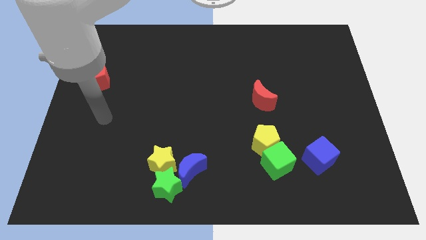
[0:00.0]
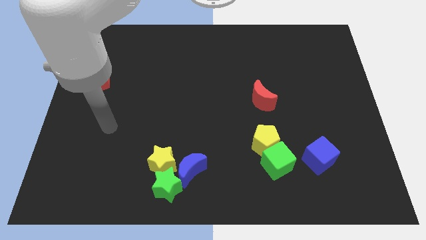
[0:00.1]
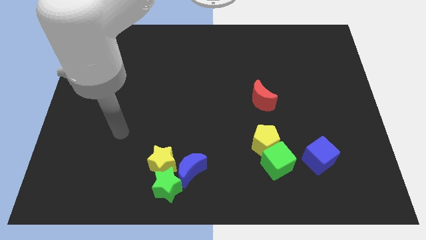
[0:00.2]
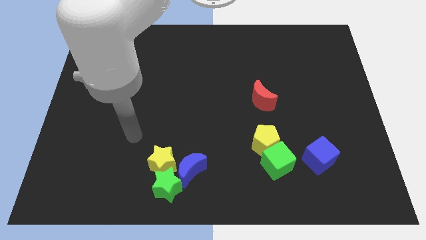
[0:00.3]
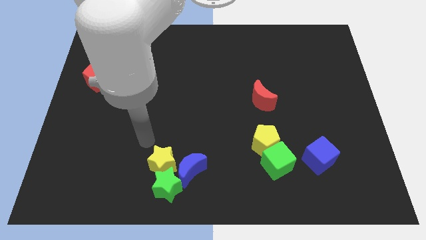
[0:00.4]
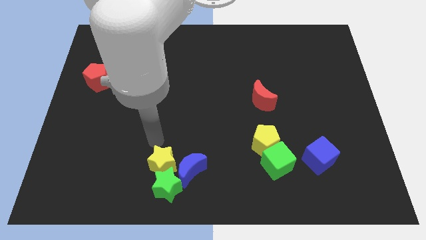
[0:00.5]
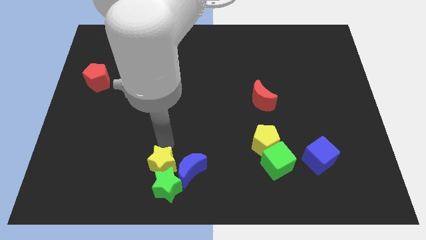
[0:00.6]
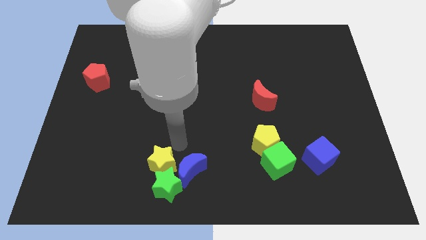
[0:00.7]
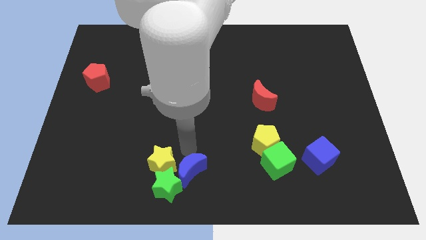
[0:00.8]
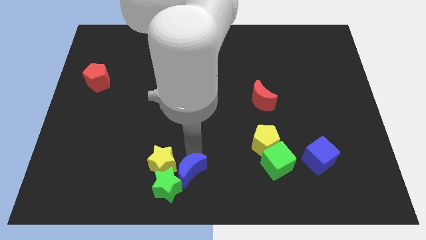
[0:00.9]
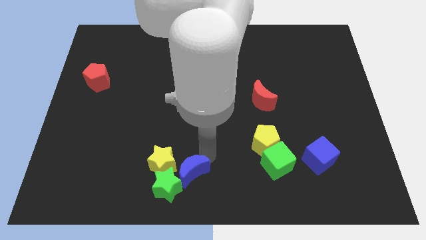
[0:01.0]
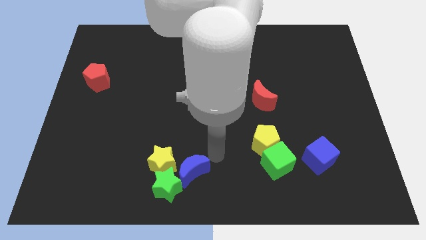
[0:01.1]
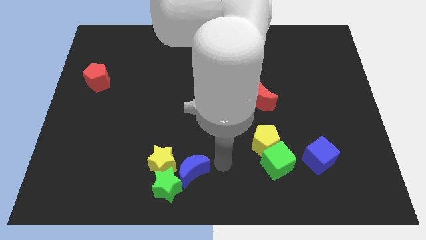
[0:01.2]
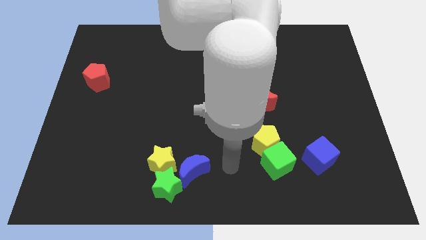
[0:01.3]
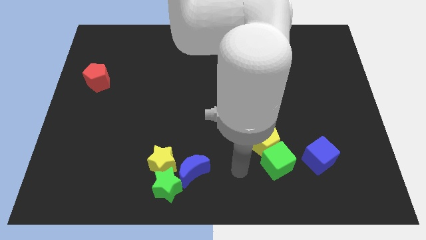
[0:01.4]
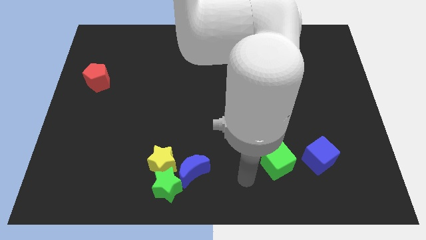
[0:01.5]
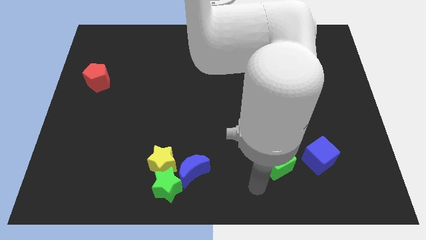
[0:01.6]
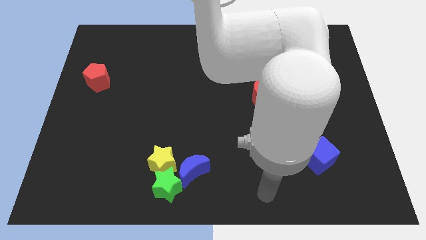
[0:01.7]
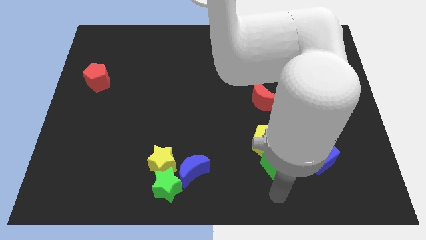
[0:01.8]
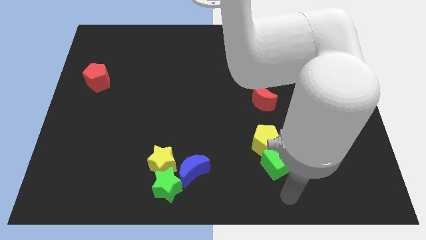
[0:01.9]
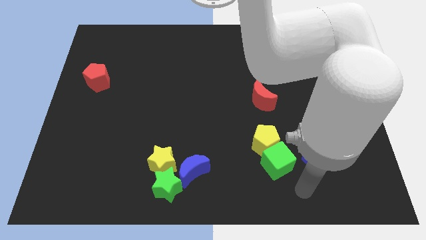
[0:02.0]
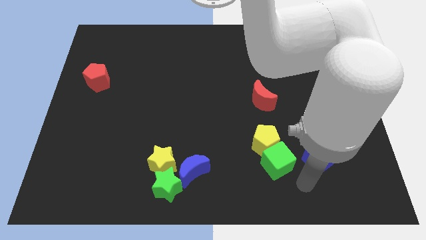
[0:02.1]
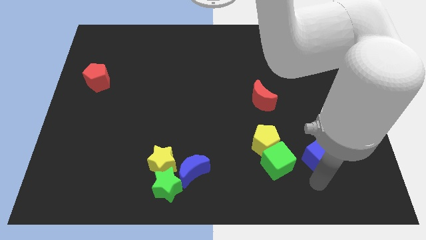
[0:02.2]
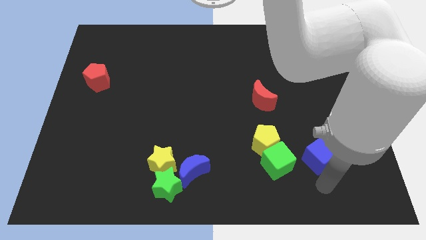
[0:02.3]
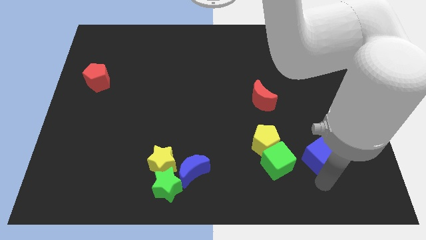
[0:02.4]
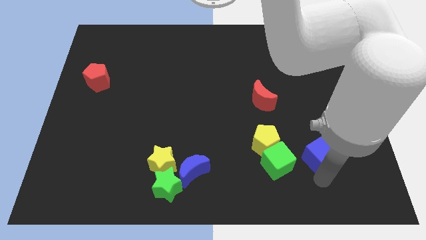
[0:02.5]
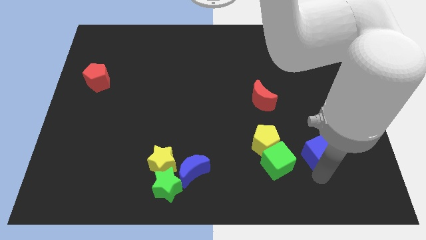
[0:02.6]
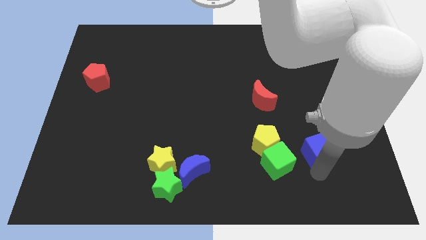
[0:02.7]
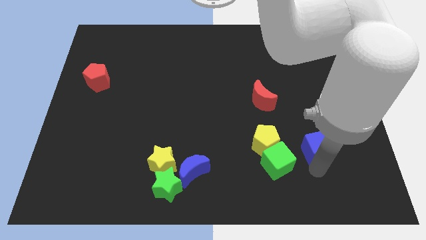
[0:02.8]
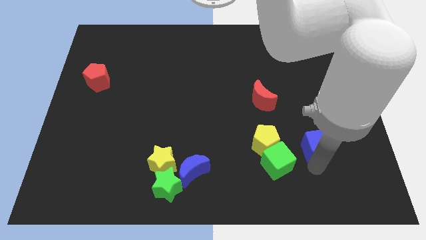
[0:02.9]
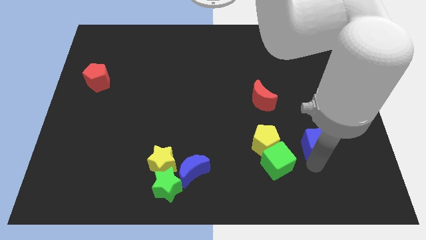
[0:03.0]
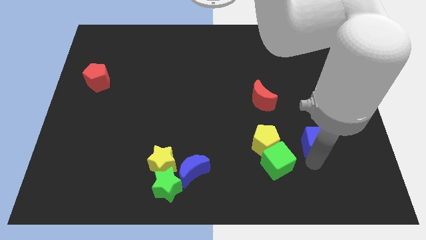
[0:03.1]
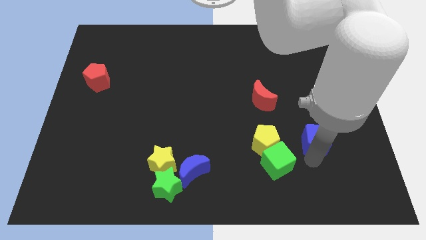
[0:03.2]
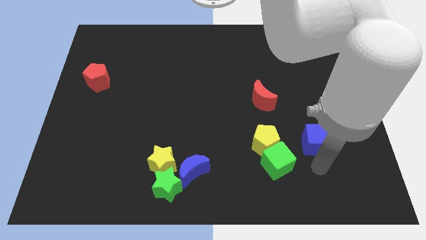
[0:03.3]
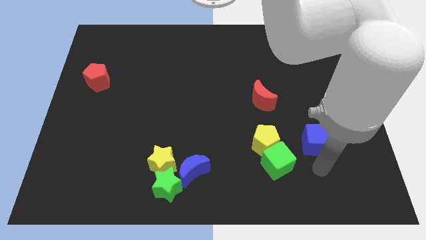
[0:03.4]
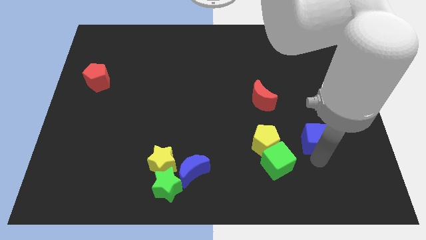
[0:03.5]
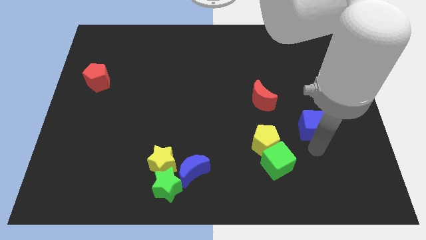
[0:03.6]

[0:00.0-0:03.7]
push the blue cube up a bit

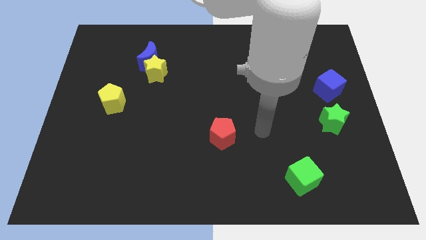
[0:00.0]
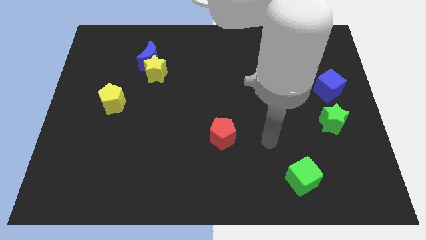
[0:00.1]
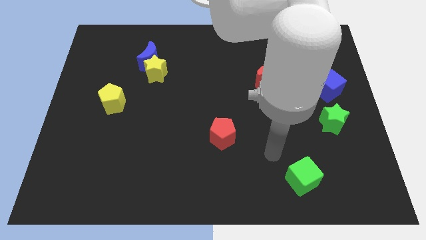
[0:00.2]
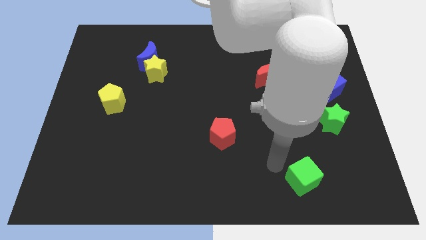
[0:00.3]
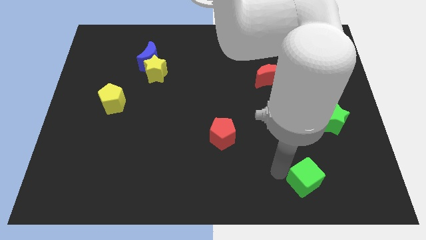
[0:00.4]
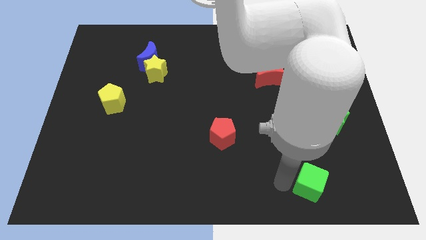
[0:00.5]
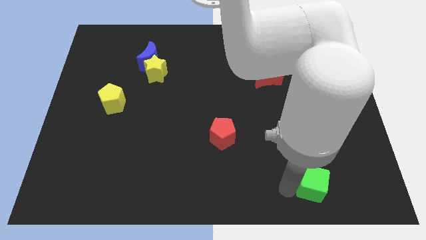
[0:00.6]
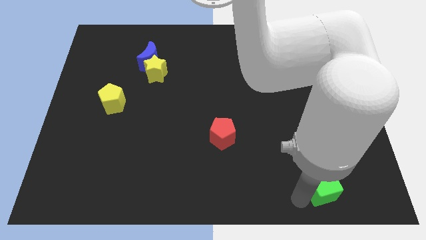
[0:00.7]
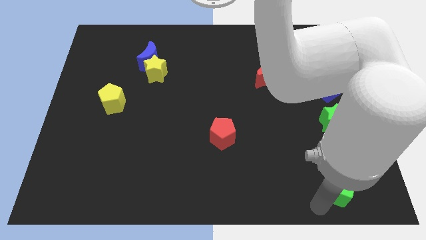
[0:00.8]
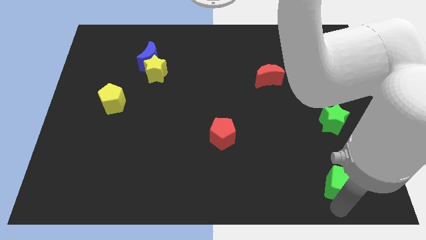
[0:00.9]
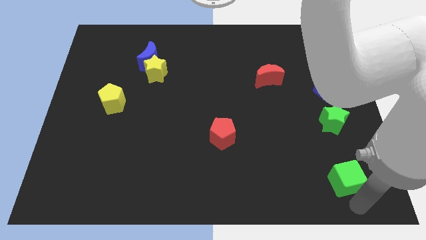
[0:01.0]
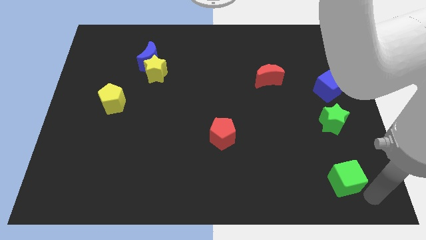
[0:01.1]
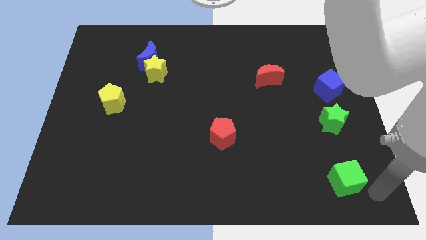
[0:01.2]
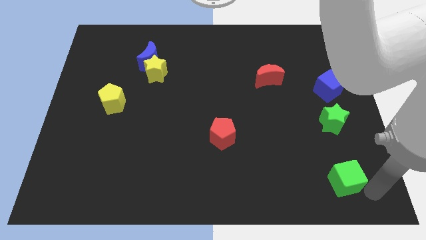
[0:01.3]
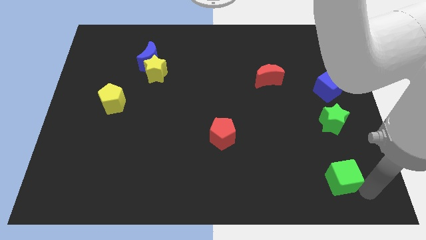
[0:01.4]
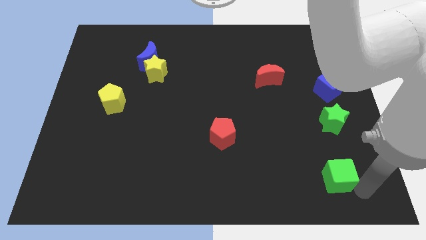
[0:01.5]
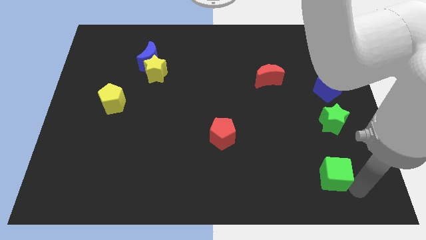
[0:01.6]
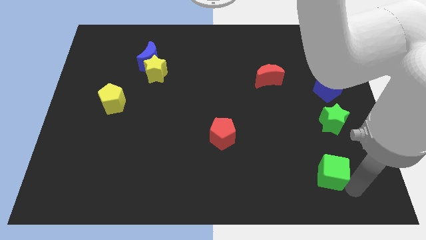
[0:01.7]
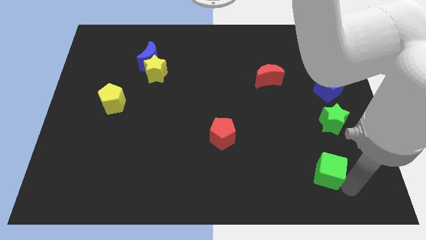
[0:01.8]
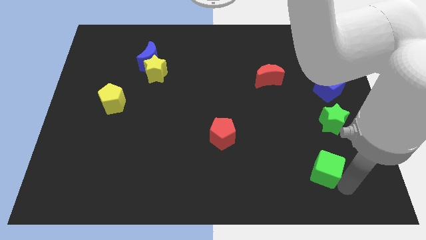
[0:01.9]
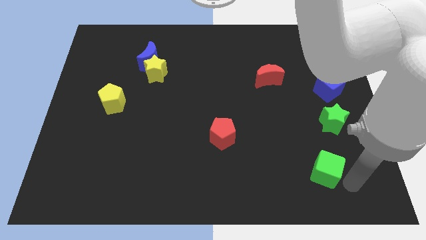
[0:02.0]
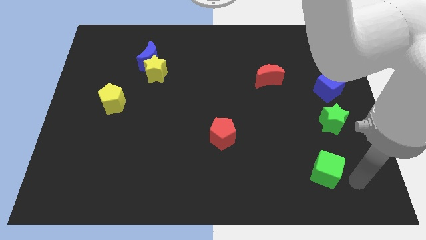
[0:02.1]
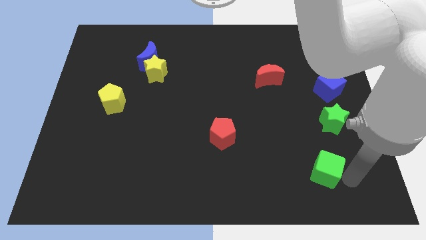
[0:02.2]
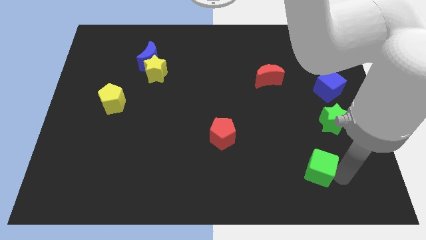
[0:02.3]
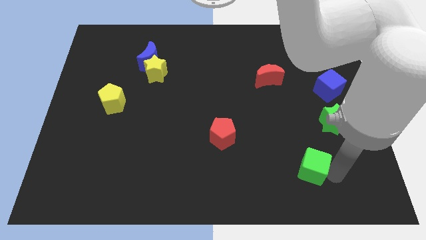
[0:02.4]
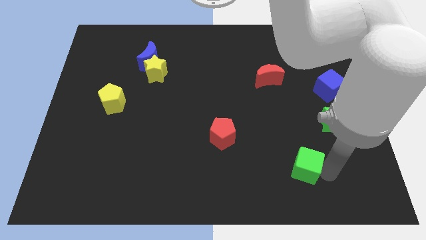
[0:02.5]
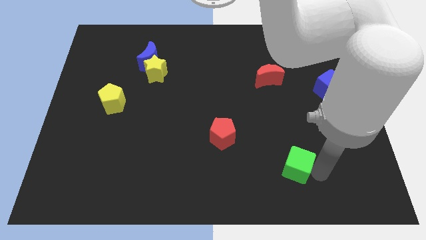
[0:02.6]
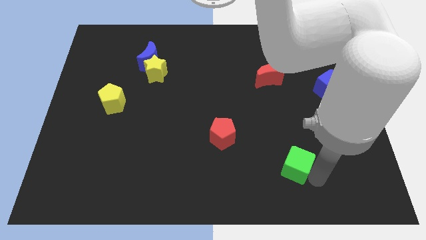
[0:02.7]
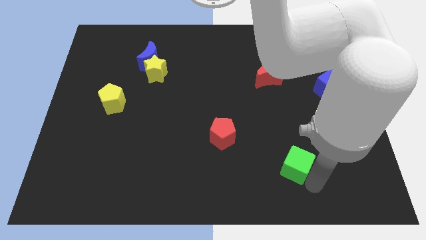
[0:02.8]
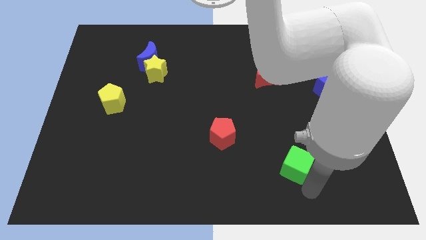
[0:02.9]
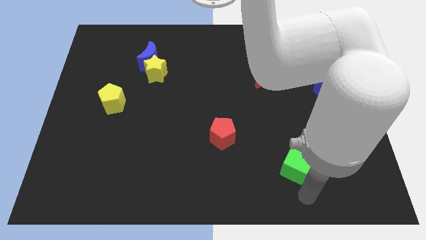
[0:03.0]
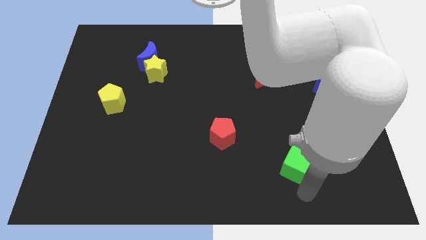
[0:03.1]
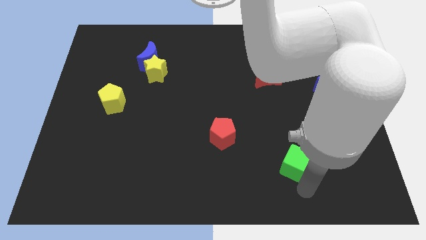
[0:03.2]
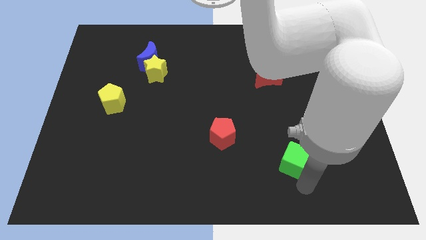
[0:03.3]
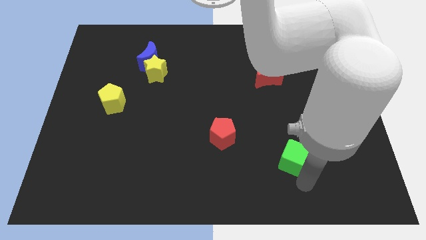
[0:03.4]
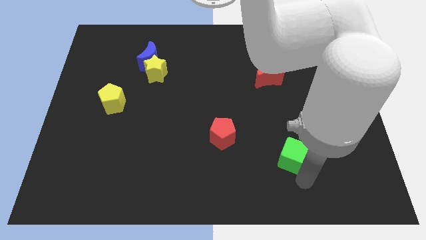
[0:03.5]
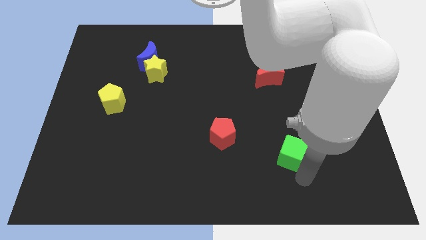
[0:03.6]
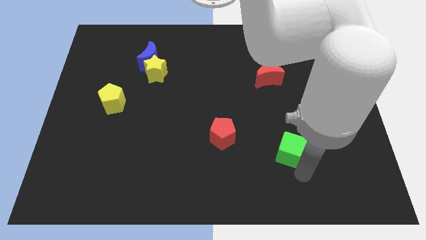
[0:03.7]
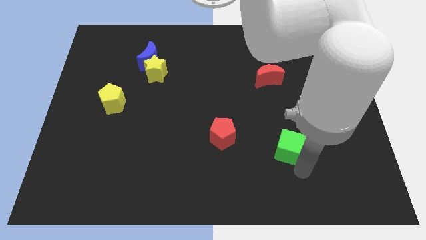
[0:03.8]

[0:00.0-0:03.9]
slightly slide the green cube up

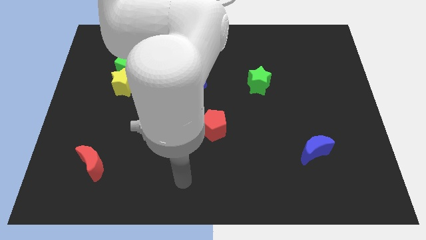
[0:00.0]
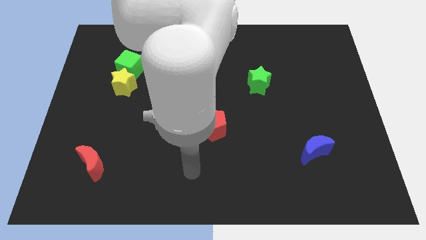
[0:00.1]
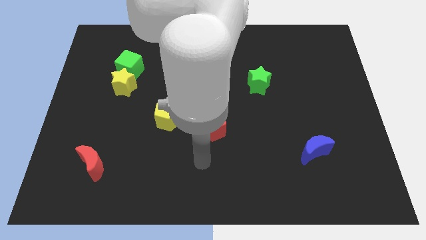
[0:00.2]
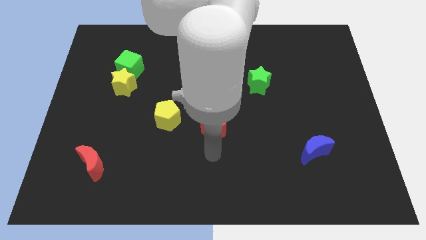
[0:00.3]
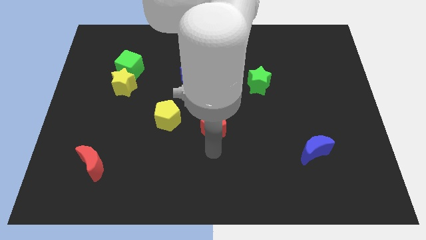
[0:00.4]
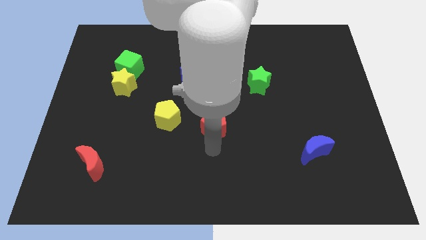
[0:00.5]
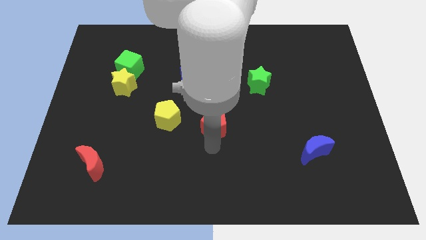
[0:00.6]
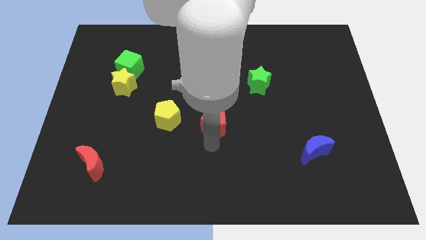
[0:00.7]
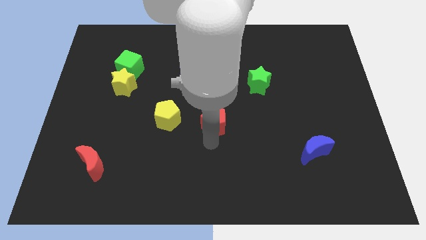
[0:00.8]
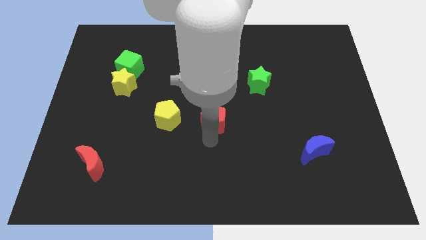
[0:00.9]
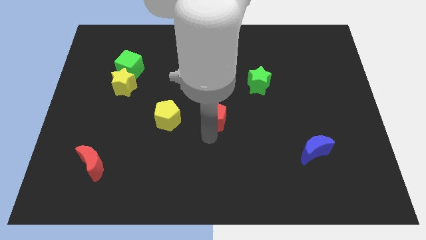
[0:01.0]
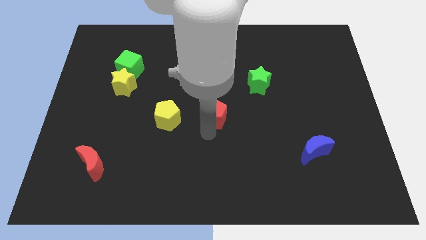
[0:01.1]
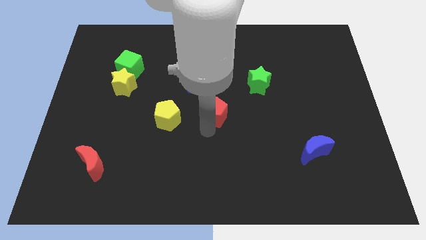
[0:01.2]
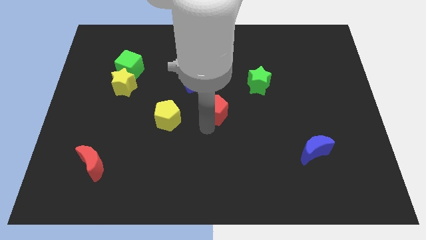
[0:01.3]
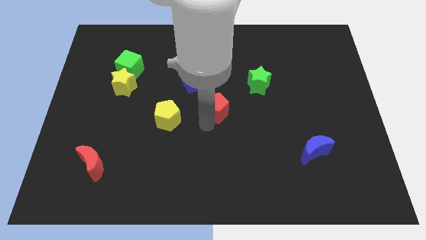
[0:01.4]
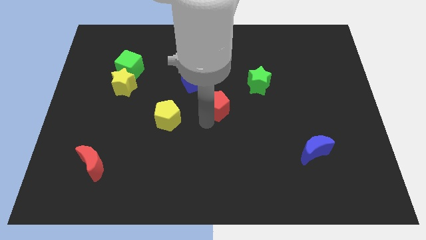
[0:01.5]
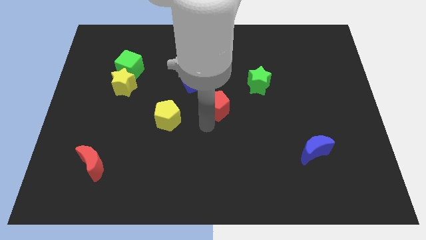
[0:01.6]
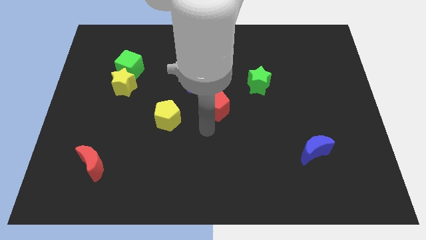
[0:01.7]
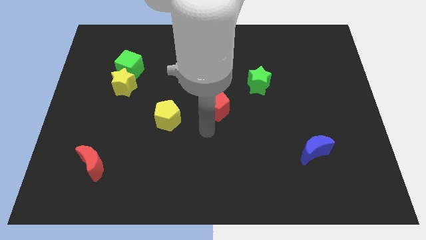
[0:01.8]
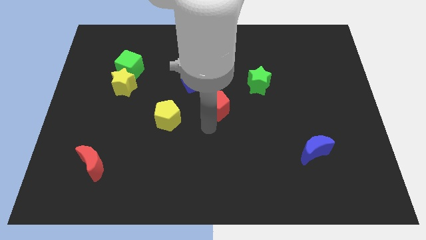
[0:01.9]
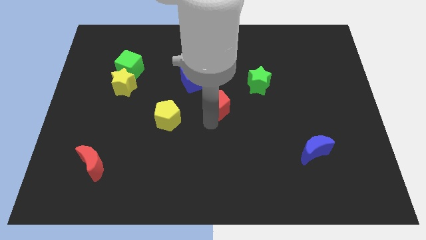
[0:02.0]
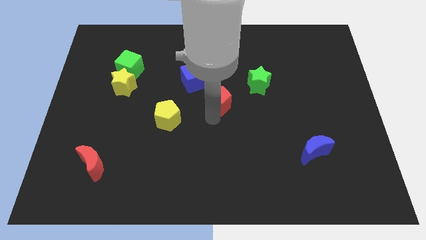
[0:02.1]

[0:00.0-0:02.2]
move the red pentagon a little up
